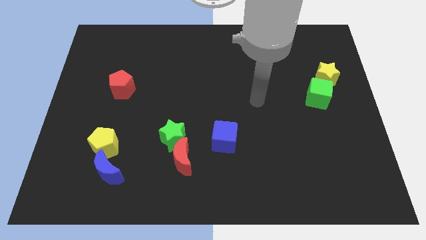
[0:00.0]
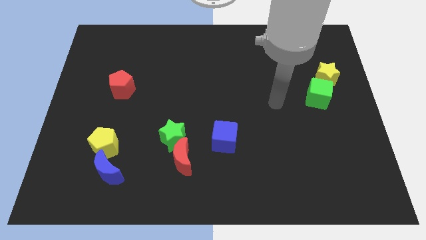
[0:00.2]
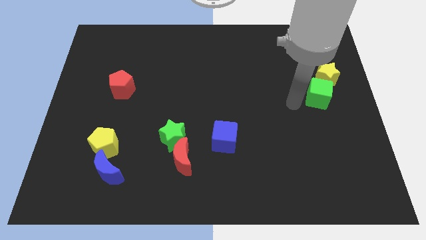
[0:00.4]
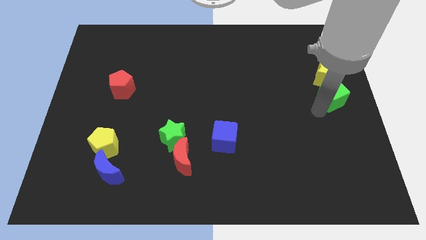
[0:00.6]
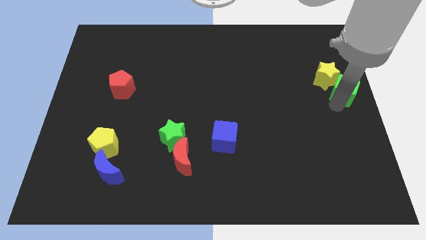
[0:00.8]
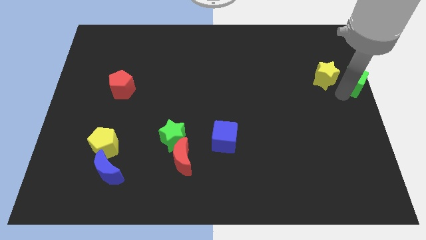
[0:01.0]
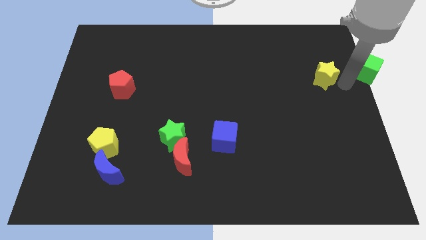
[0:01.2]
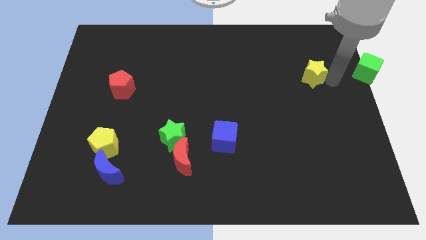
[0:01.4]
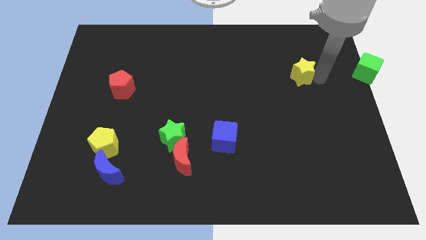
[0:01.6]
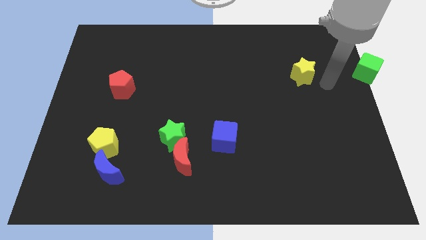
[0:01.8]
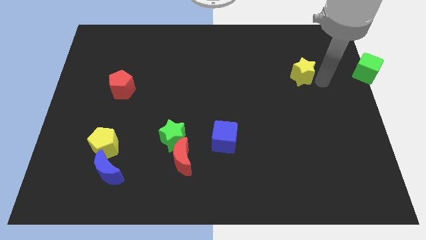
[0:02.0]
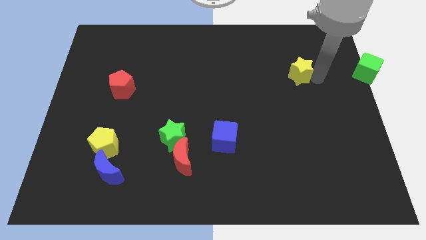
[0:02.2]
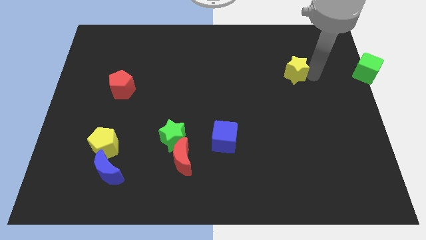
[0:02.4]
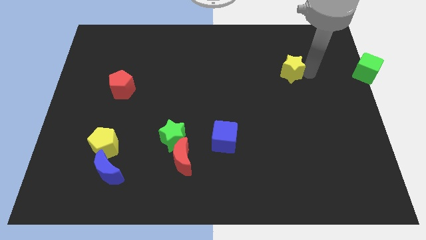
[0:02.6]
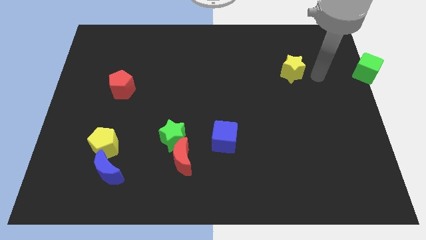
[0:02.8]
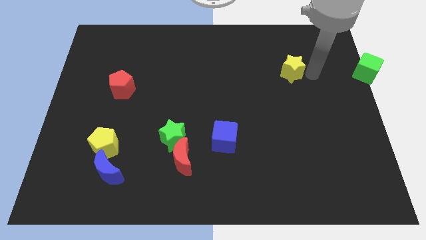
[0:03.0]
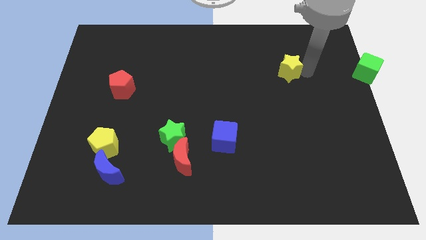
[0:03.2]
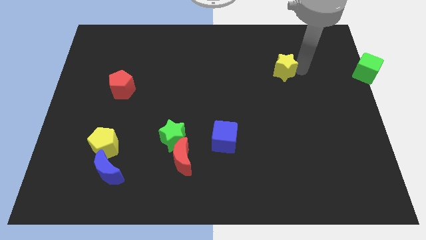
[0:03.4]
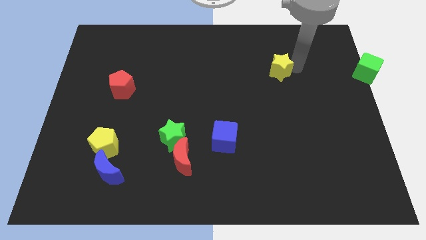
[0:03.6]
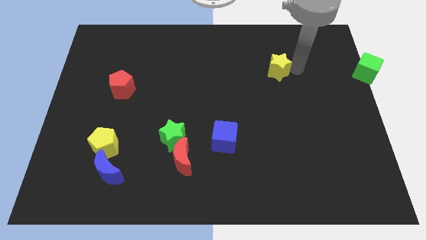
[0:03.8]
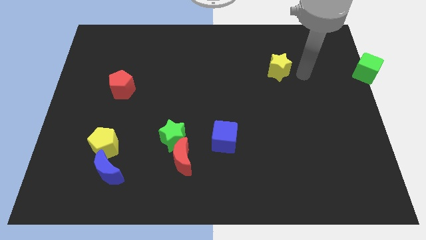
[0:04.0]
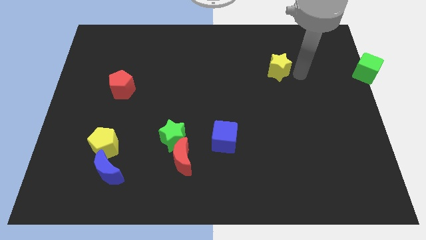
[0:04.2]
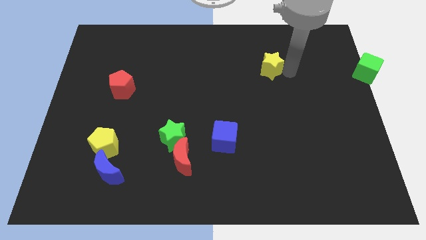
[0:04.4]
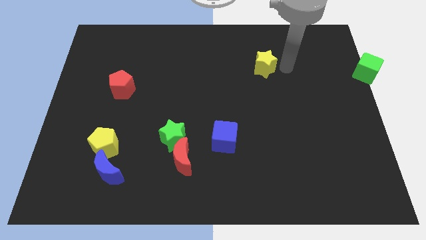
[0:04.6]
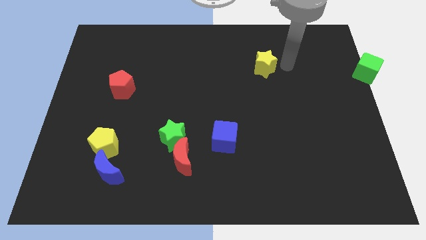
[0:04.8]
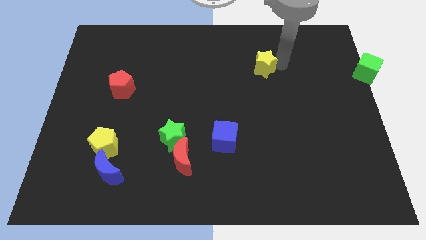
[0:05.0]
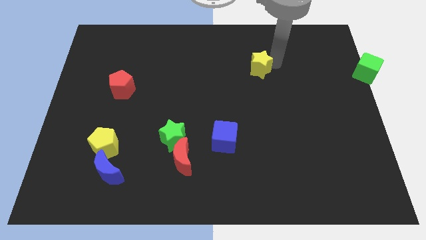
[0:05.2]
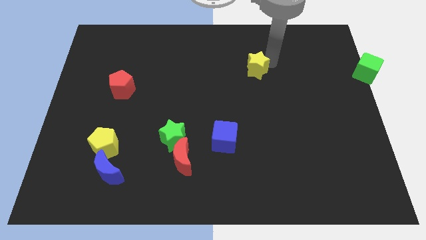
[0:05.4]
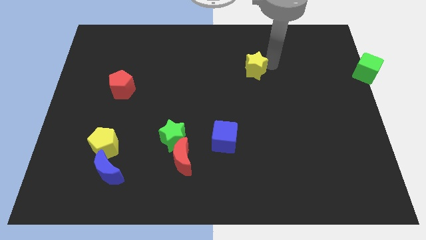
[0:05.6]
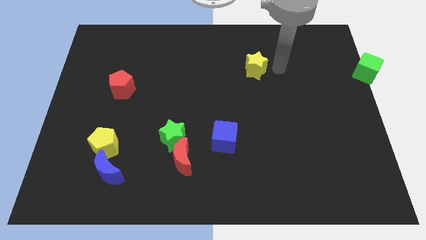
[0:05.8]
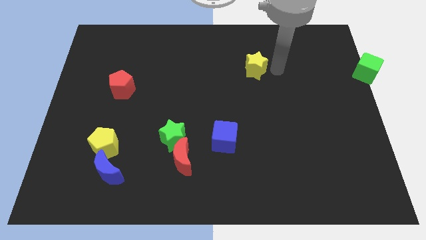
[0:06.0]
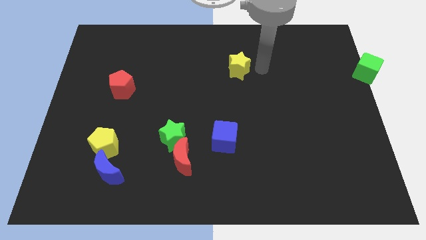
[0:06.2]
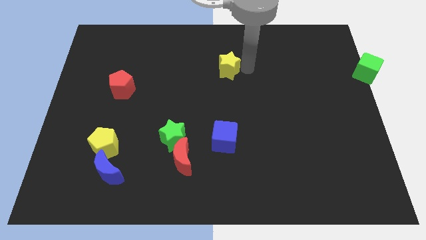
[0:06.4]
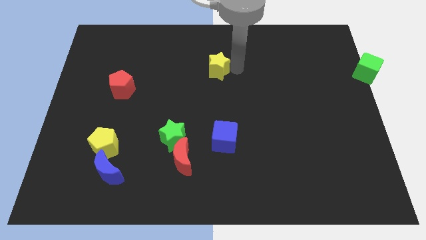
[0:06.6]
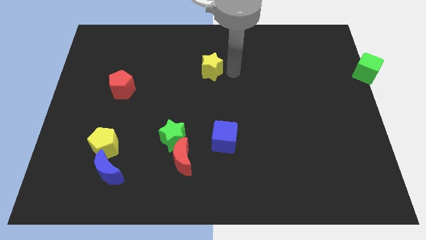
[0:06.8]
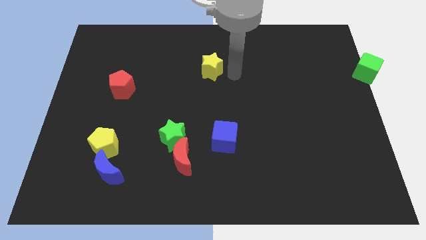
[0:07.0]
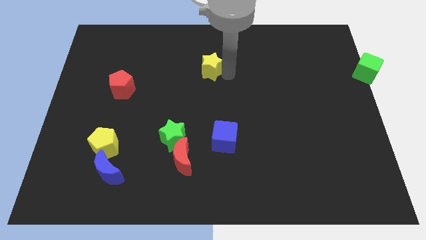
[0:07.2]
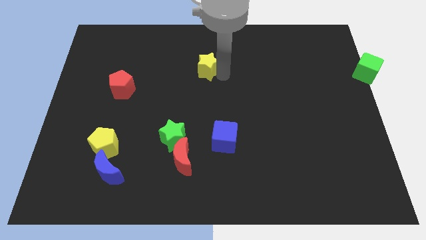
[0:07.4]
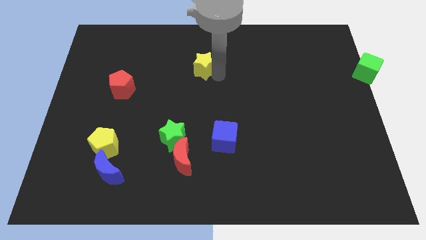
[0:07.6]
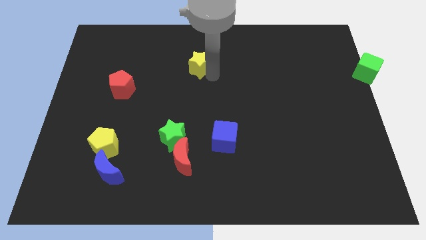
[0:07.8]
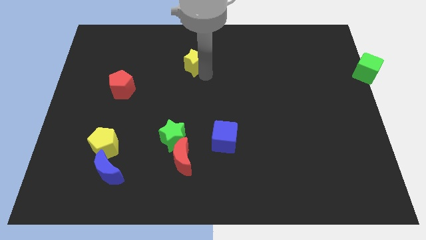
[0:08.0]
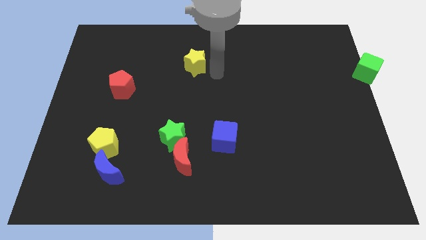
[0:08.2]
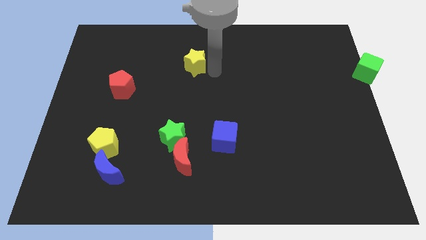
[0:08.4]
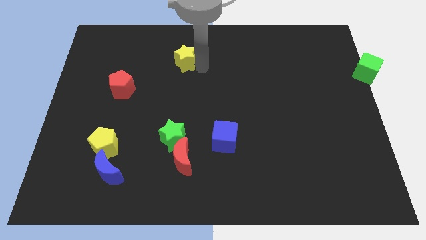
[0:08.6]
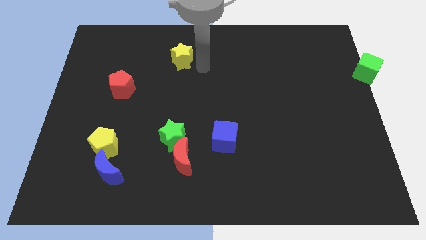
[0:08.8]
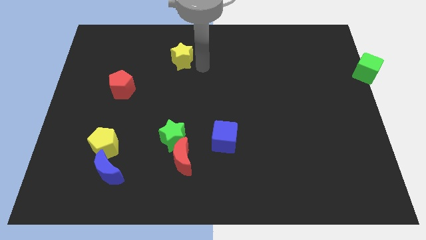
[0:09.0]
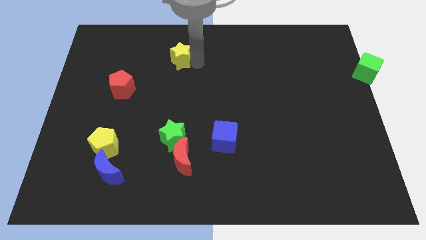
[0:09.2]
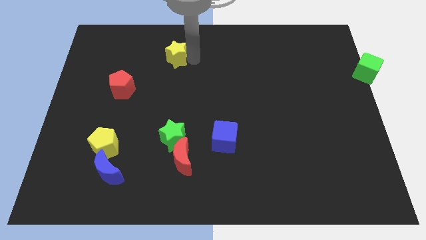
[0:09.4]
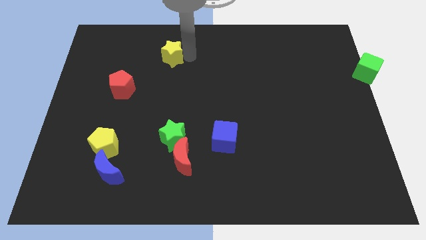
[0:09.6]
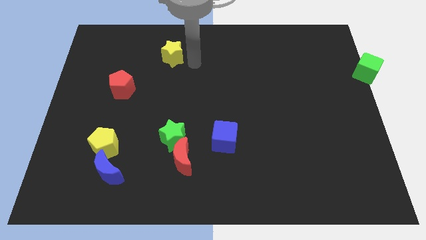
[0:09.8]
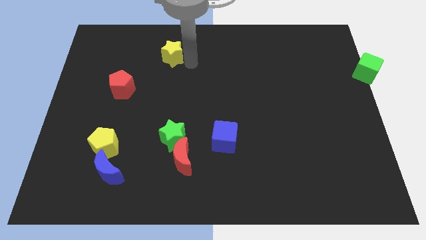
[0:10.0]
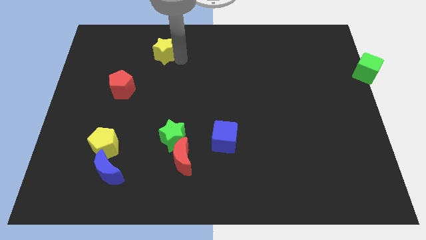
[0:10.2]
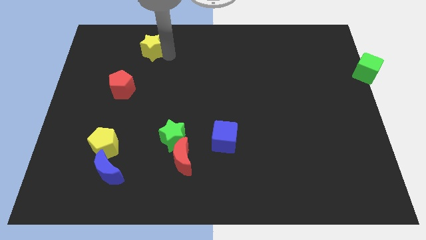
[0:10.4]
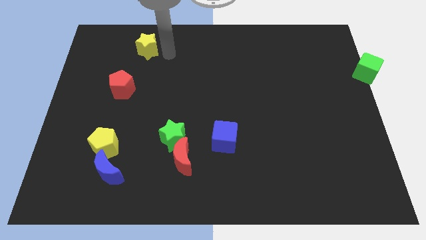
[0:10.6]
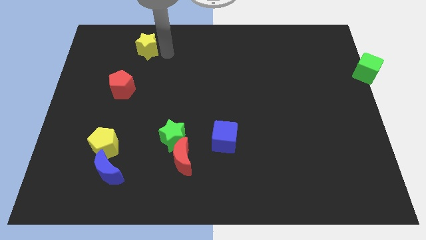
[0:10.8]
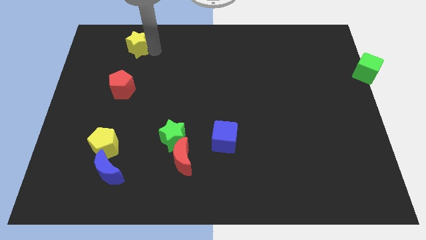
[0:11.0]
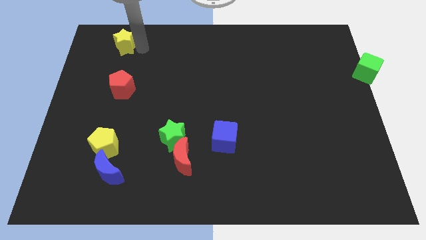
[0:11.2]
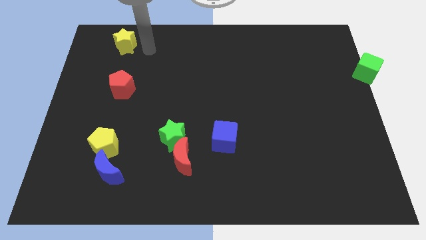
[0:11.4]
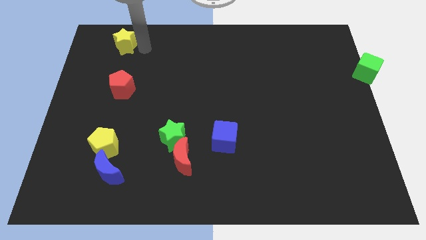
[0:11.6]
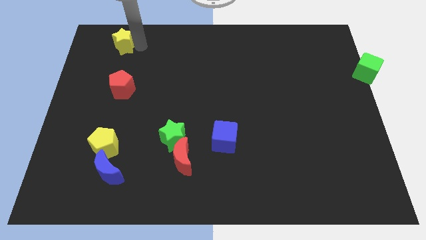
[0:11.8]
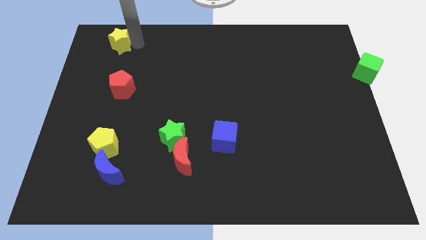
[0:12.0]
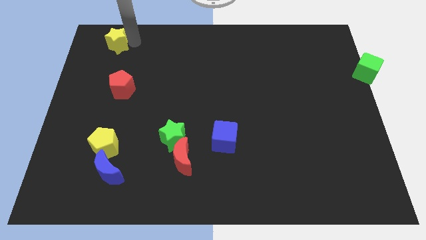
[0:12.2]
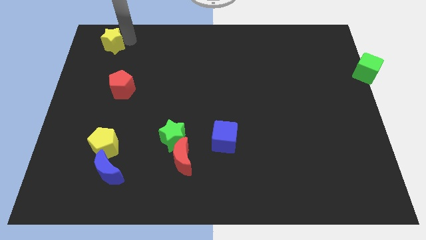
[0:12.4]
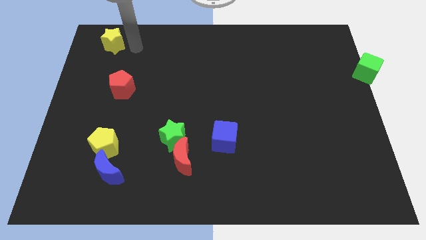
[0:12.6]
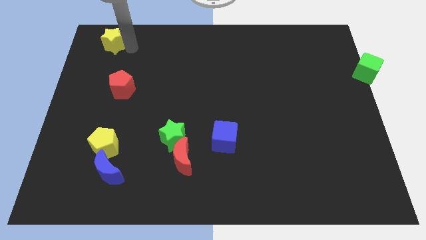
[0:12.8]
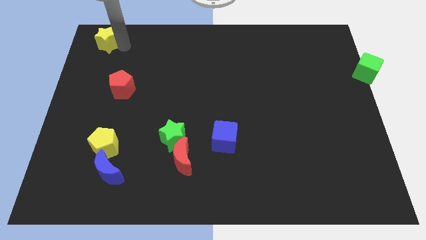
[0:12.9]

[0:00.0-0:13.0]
put the yellow star to the top left
